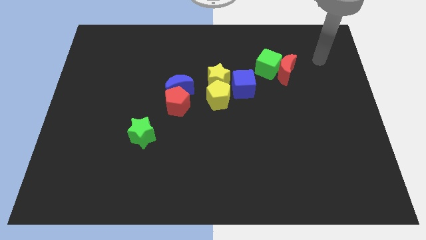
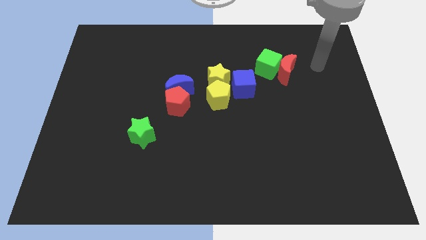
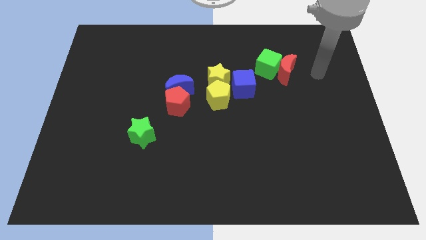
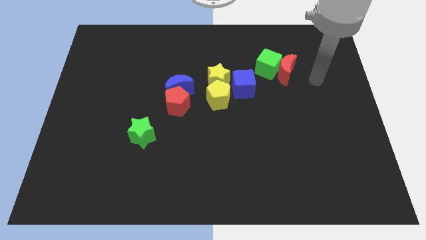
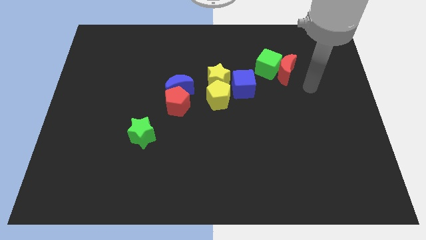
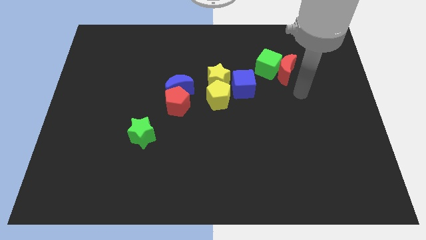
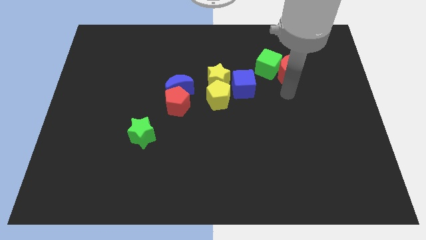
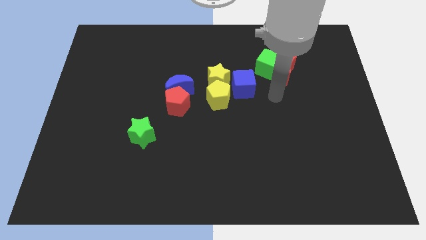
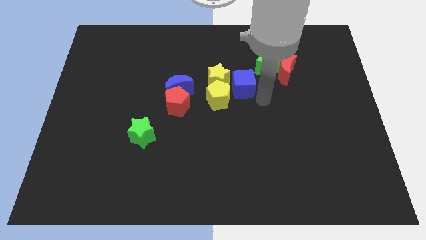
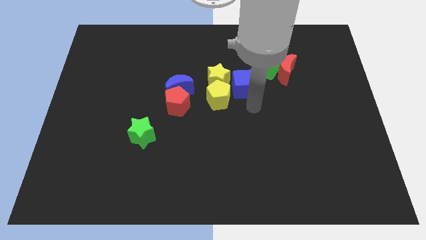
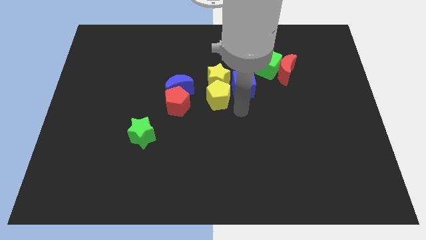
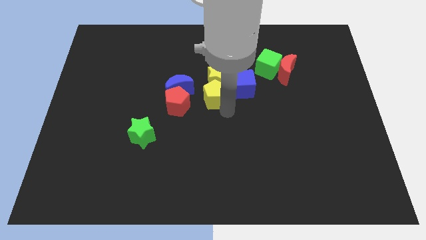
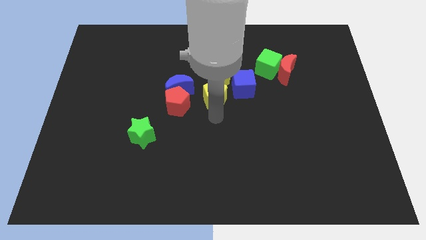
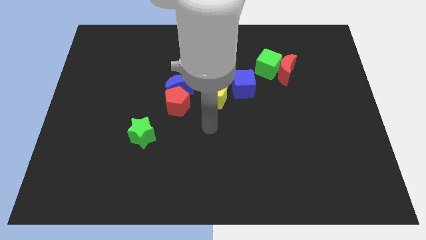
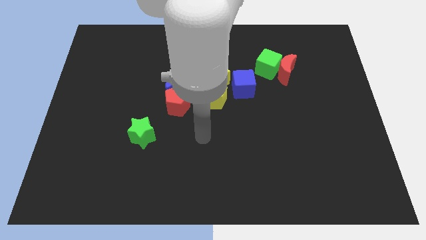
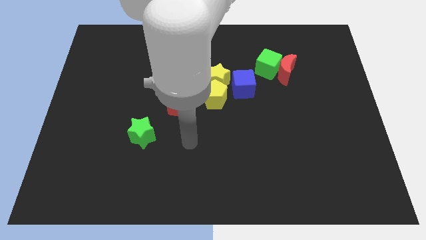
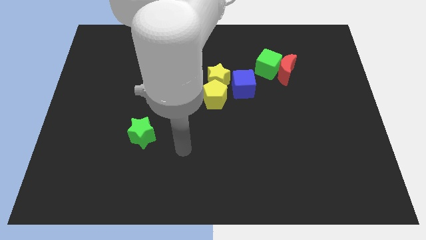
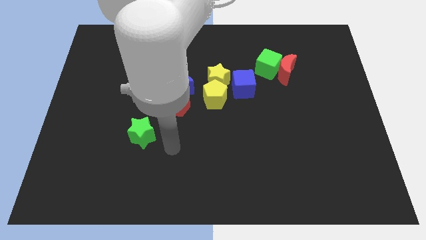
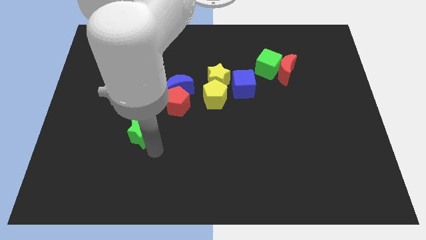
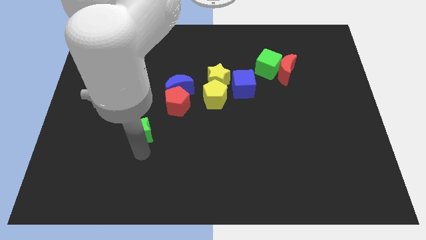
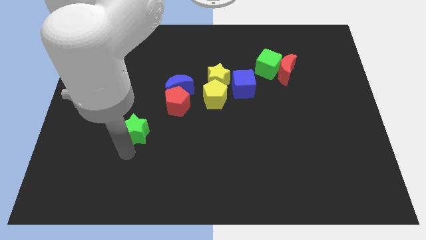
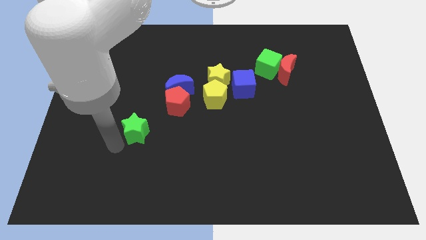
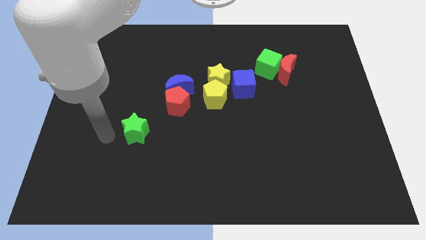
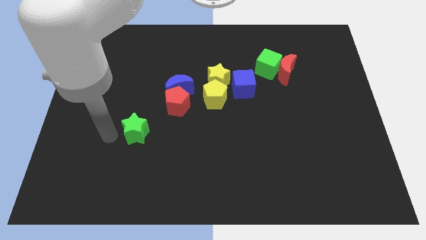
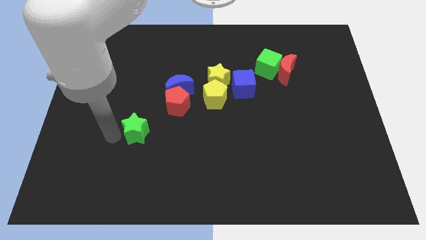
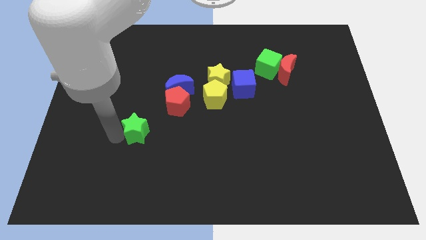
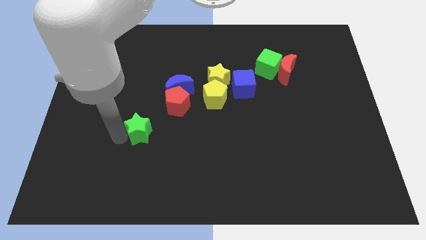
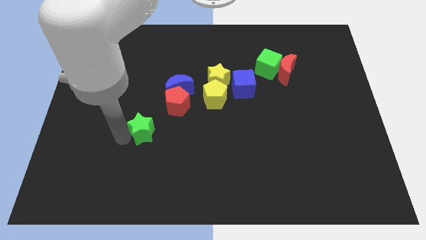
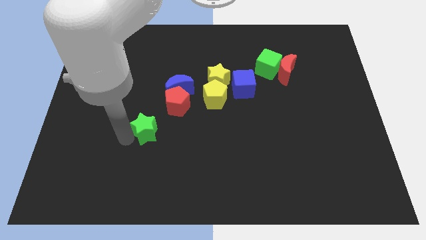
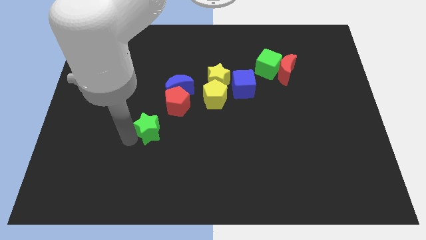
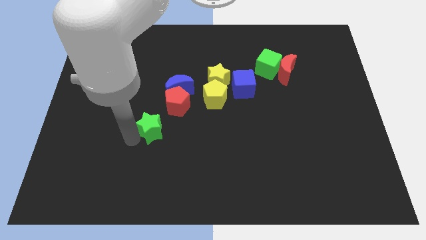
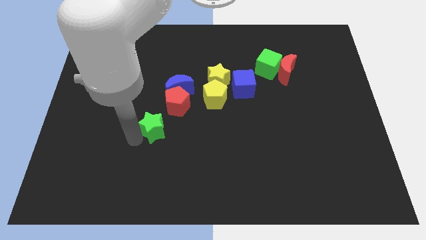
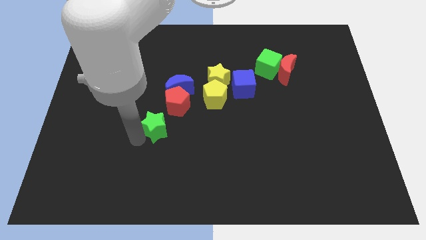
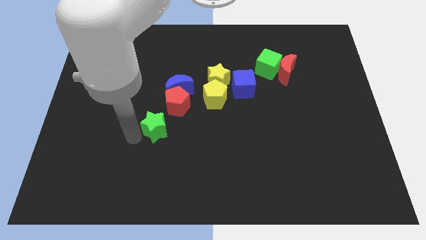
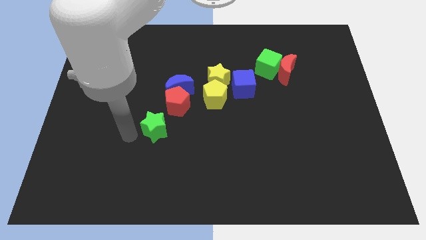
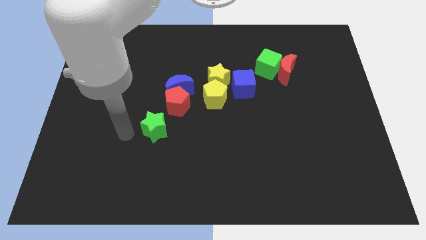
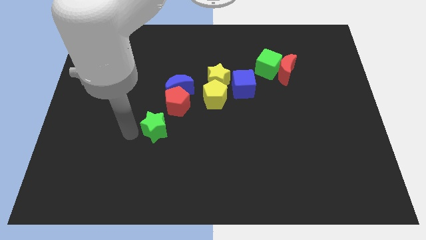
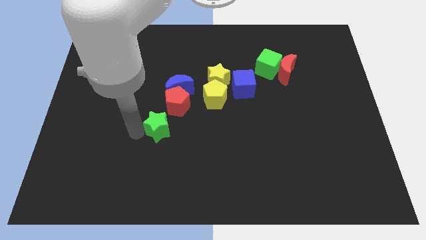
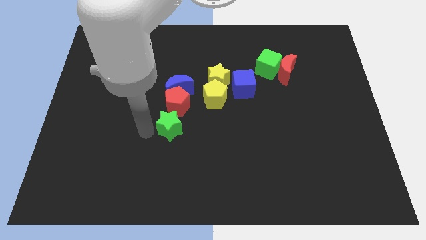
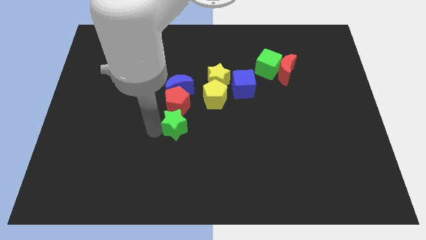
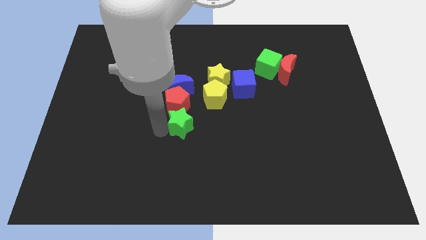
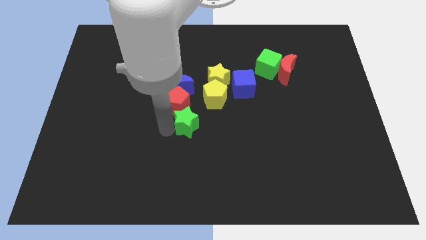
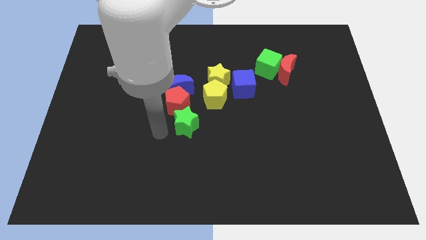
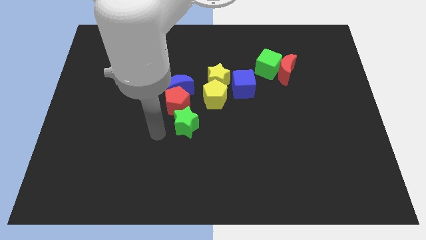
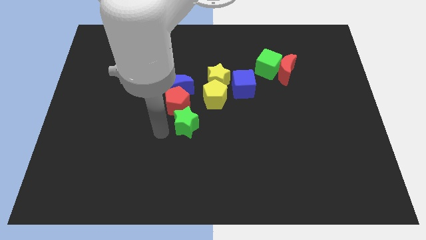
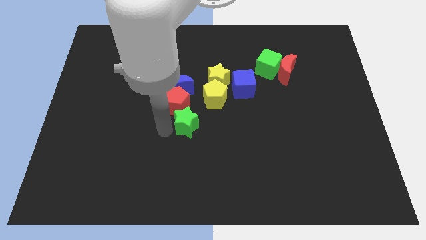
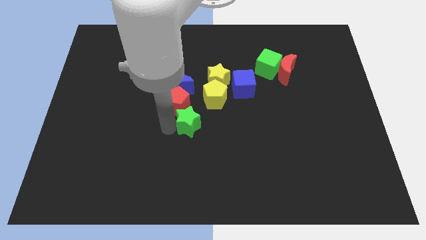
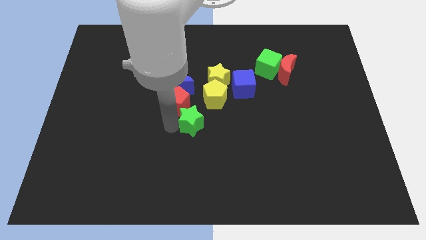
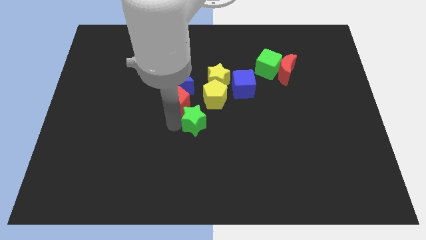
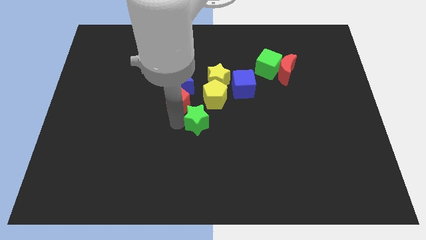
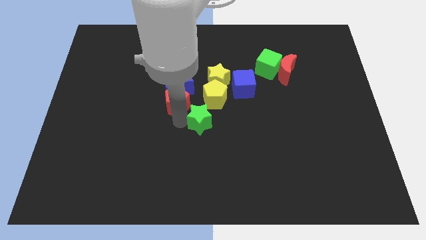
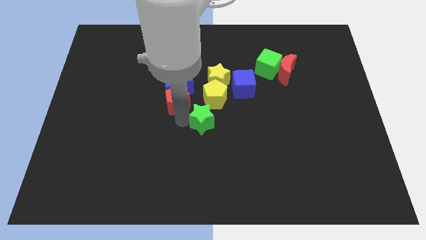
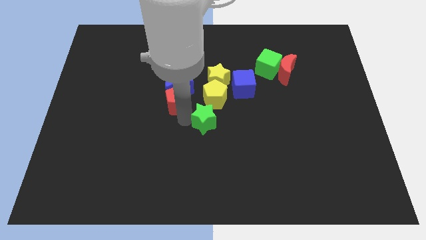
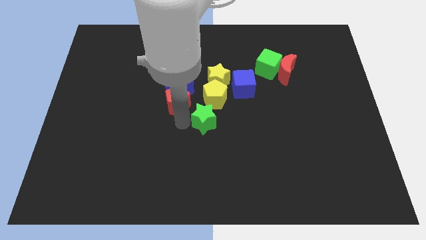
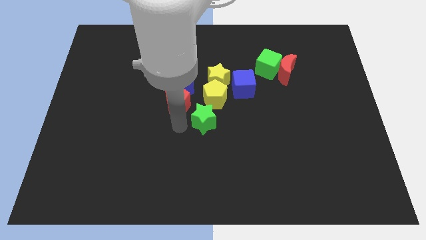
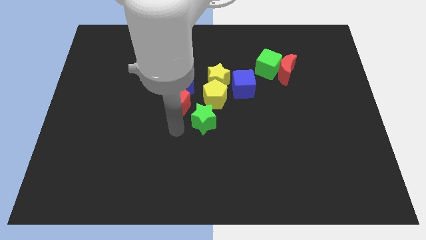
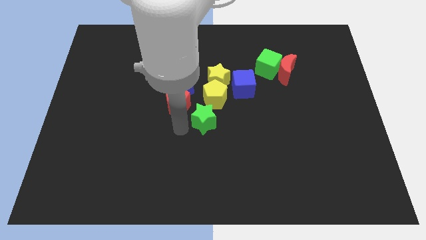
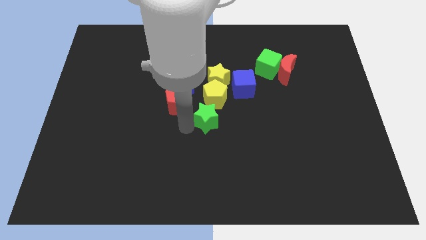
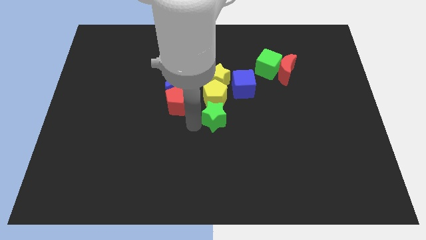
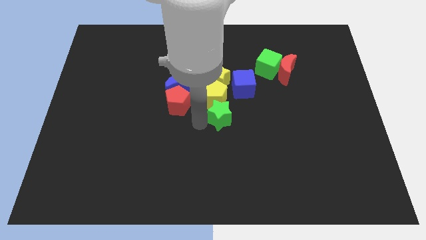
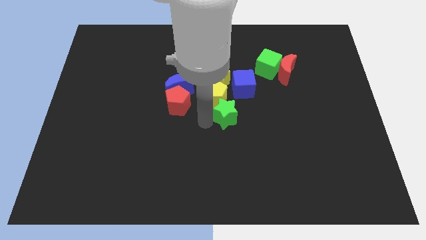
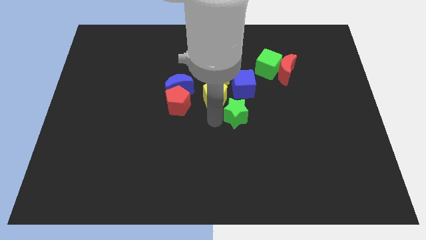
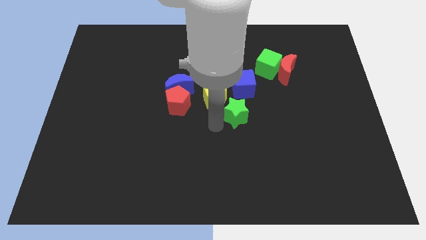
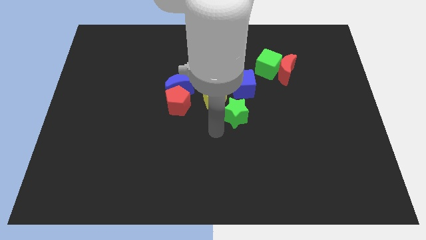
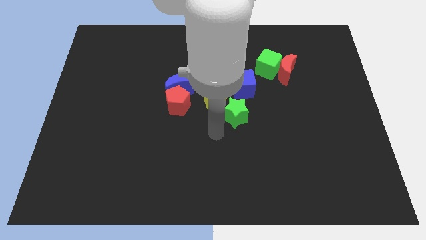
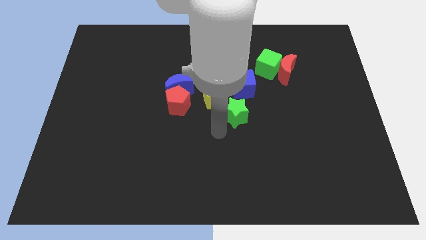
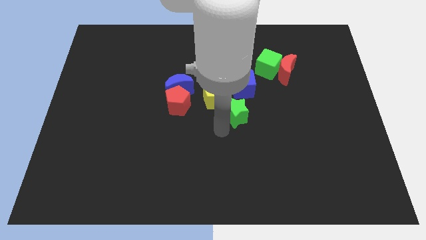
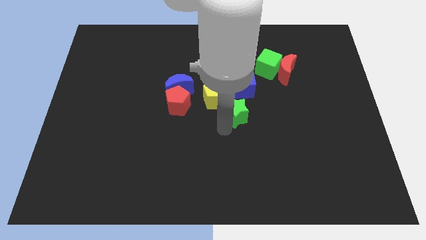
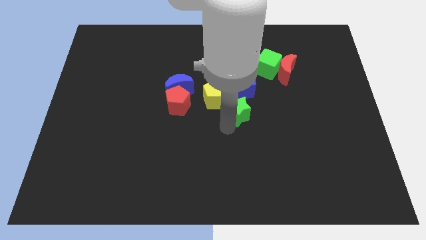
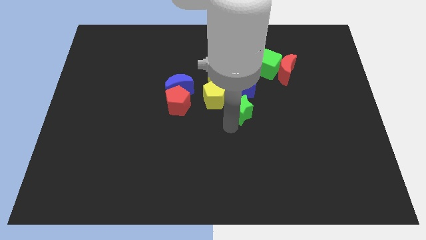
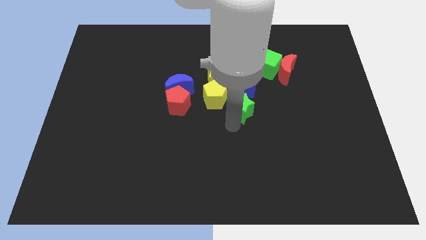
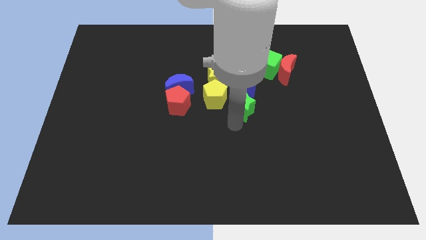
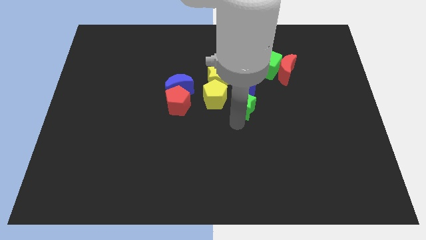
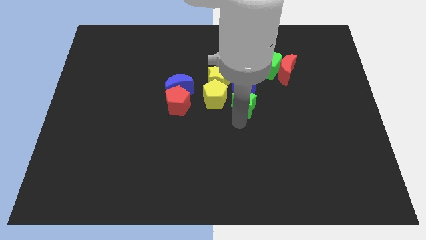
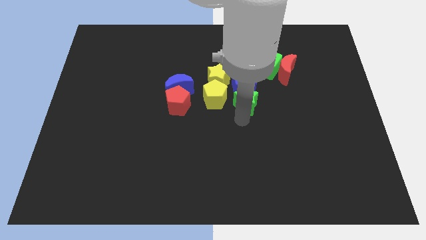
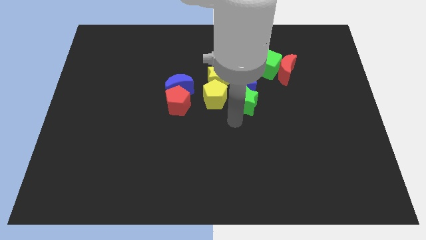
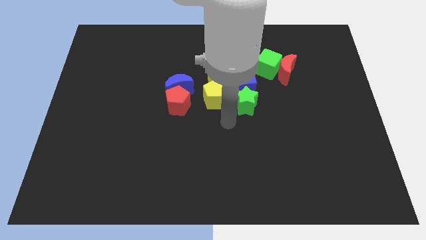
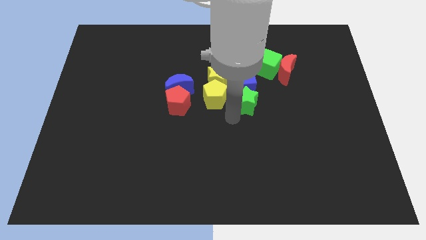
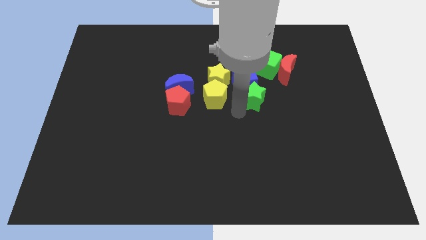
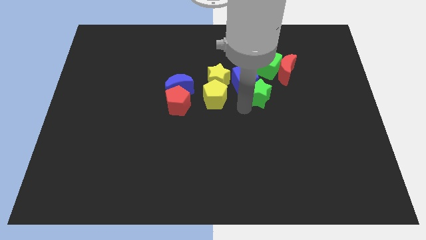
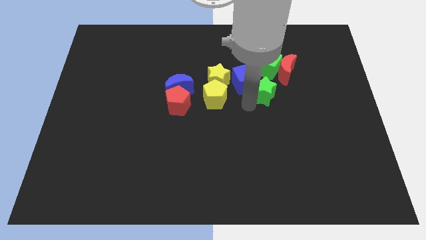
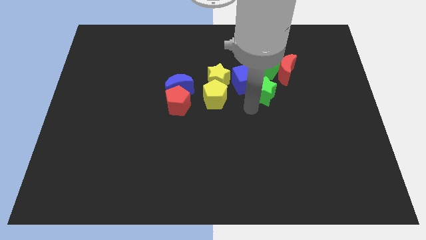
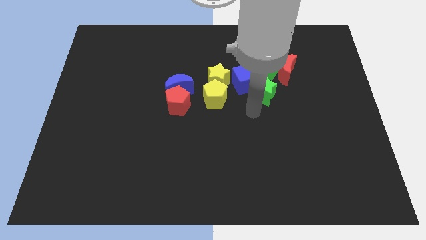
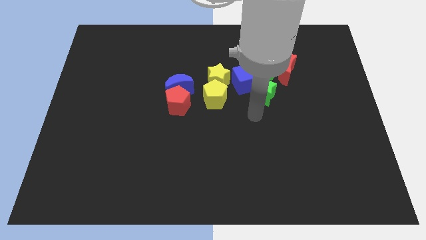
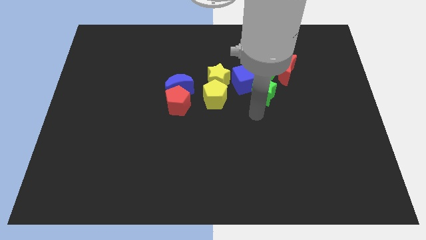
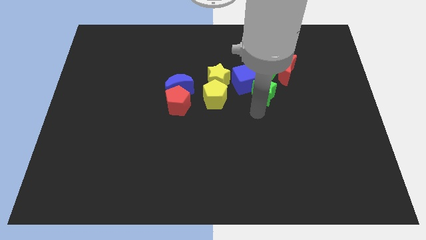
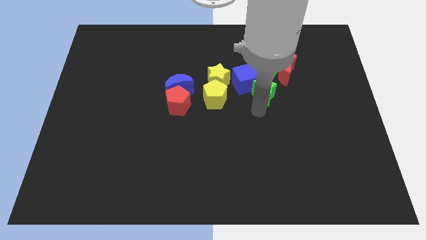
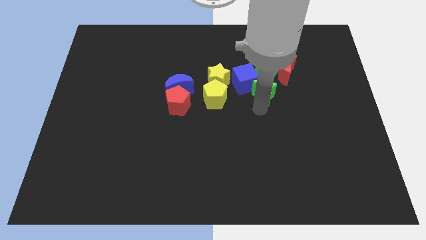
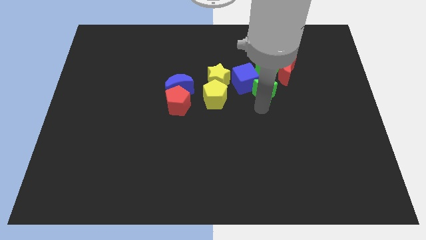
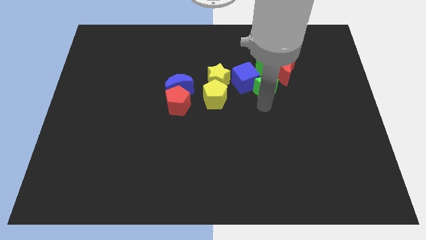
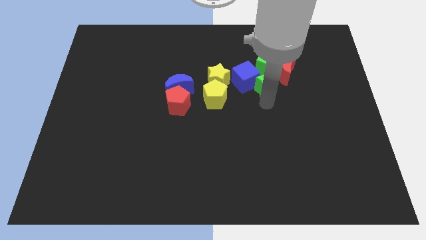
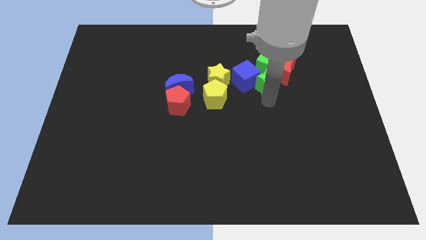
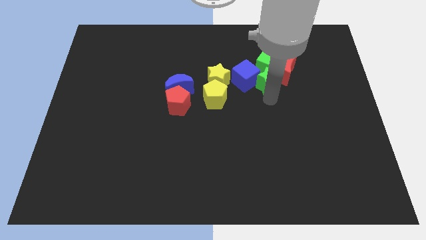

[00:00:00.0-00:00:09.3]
move the green star towards the green cube
